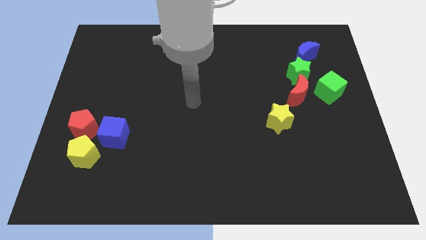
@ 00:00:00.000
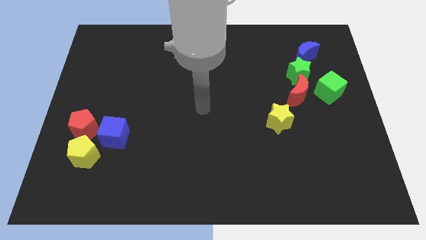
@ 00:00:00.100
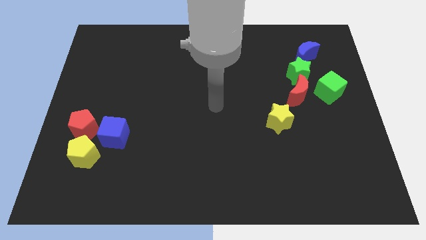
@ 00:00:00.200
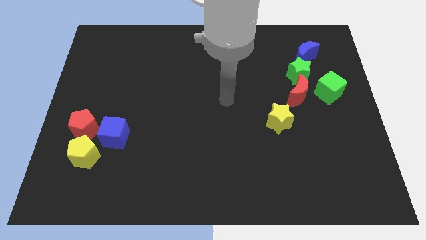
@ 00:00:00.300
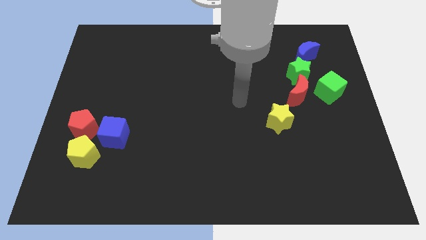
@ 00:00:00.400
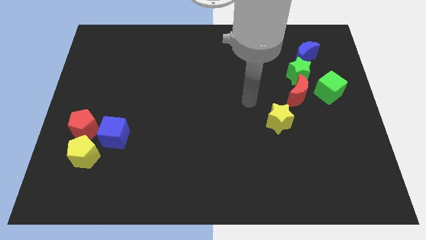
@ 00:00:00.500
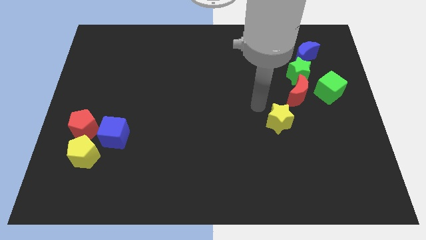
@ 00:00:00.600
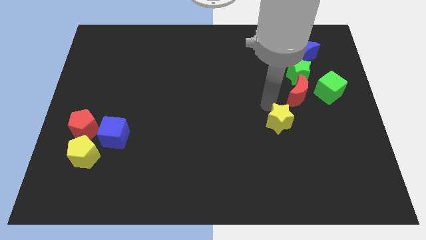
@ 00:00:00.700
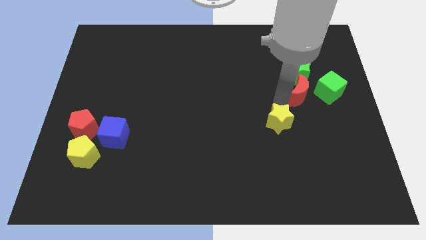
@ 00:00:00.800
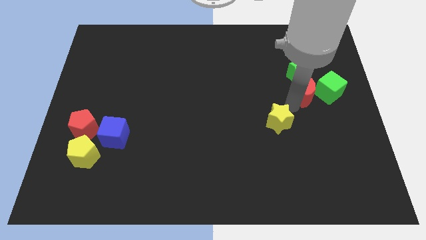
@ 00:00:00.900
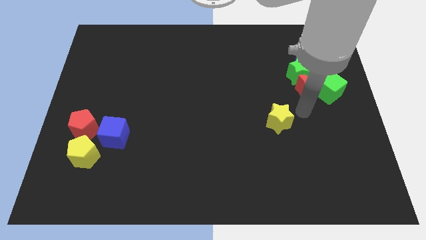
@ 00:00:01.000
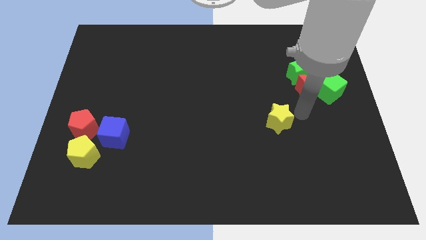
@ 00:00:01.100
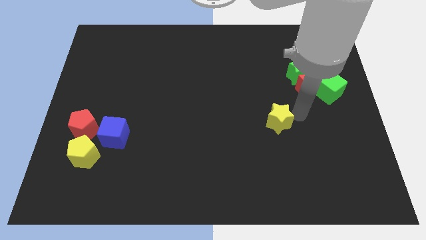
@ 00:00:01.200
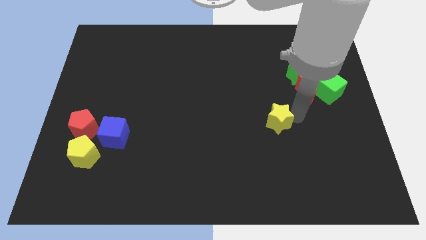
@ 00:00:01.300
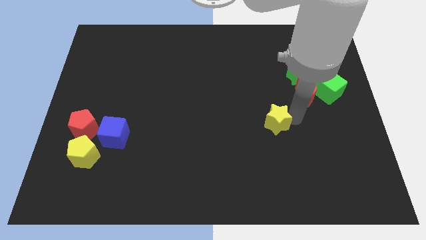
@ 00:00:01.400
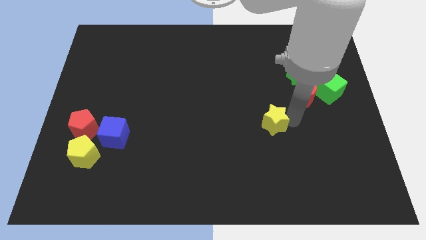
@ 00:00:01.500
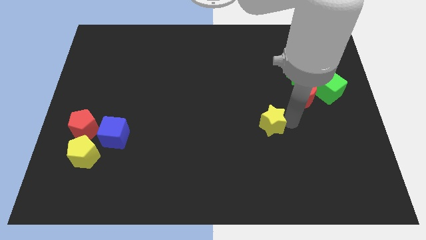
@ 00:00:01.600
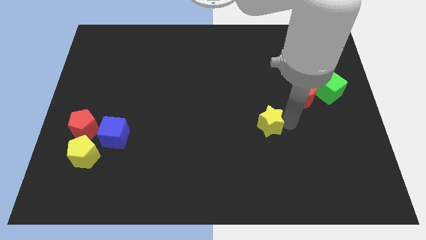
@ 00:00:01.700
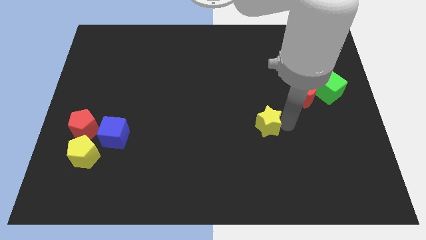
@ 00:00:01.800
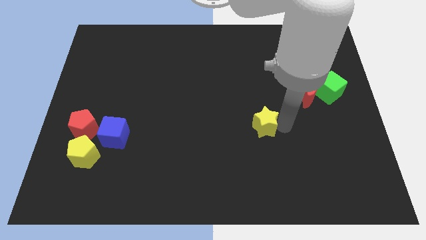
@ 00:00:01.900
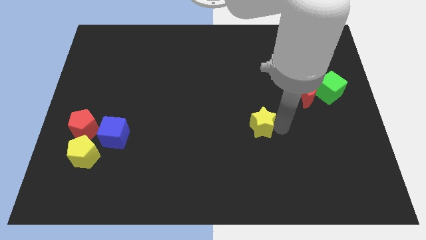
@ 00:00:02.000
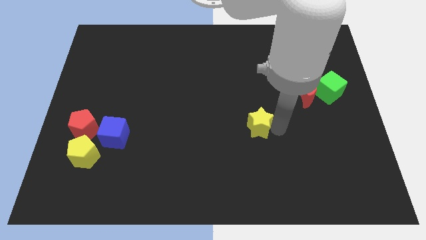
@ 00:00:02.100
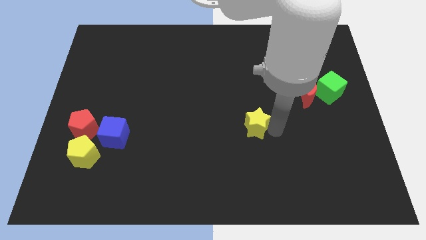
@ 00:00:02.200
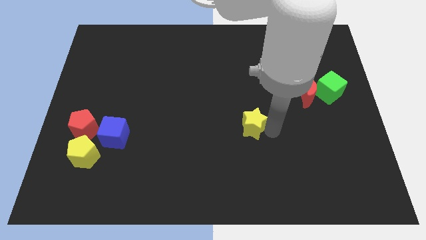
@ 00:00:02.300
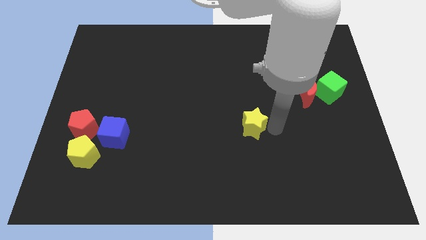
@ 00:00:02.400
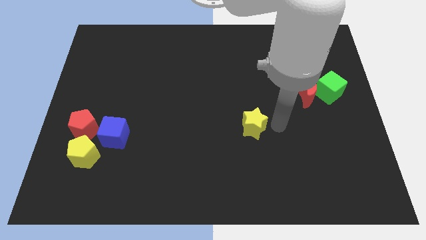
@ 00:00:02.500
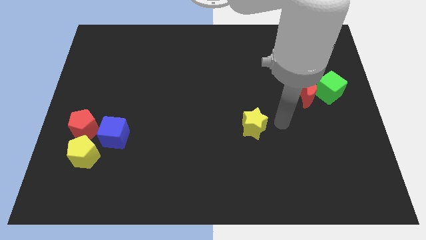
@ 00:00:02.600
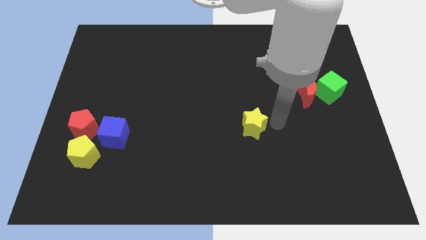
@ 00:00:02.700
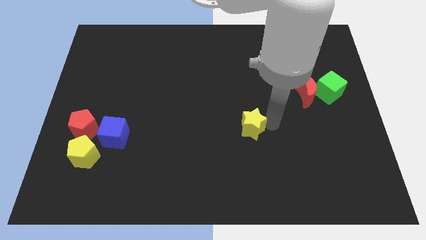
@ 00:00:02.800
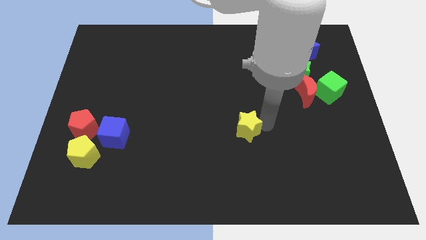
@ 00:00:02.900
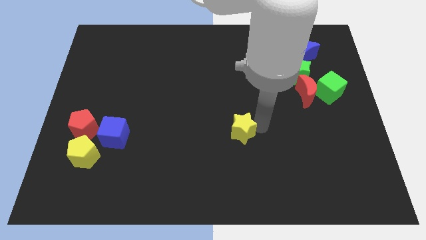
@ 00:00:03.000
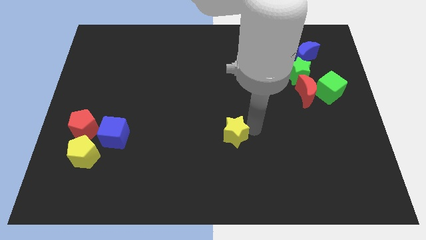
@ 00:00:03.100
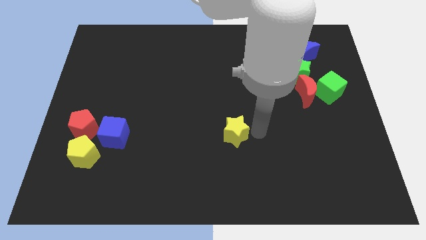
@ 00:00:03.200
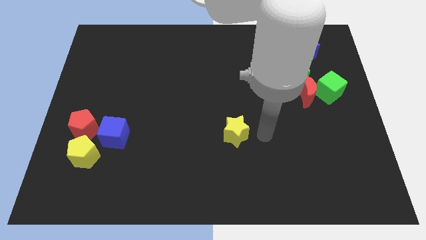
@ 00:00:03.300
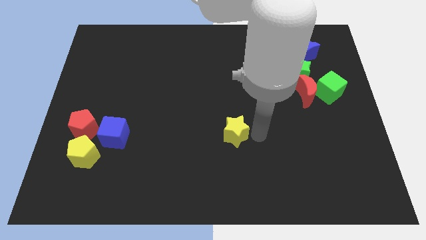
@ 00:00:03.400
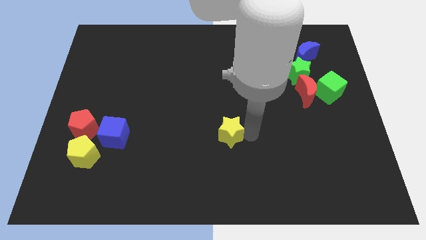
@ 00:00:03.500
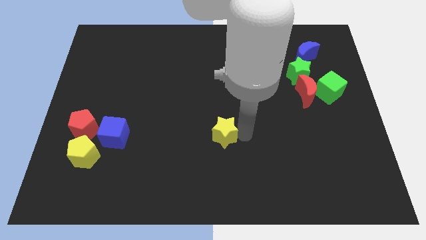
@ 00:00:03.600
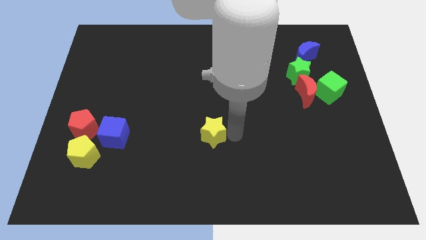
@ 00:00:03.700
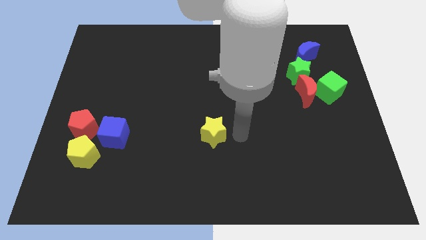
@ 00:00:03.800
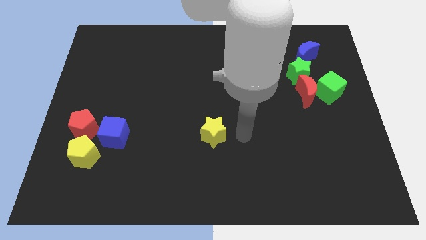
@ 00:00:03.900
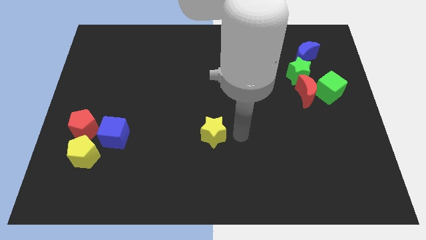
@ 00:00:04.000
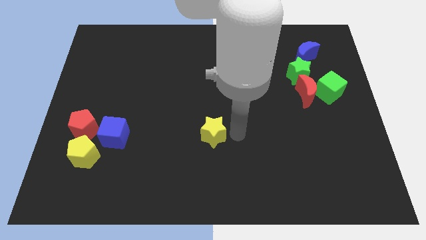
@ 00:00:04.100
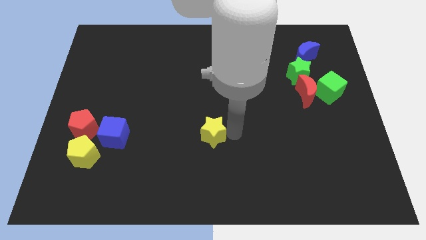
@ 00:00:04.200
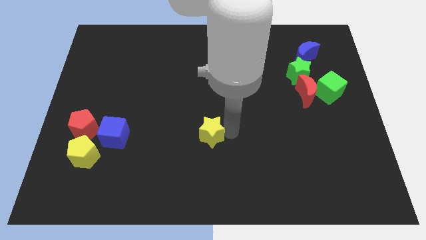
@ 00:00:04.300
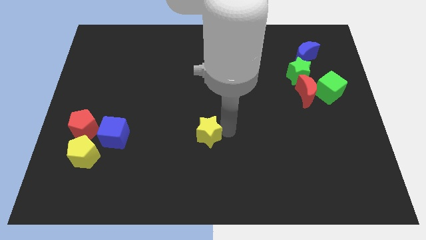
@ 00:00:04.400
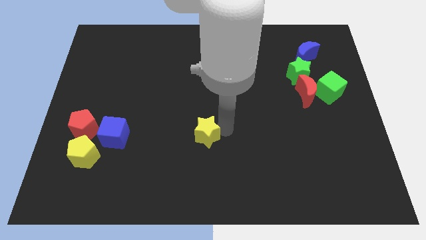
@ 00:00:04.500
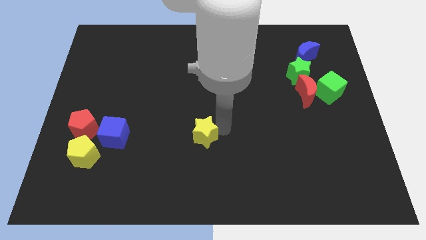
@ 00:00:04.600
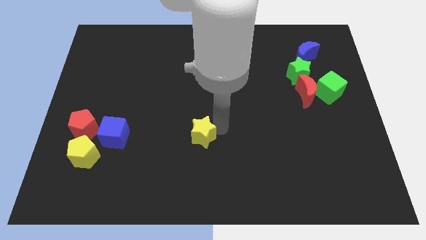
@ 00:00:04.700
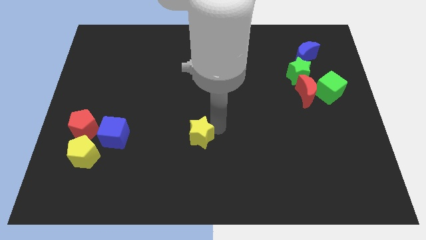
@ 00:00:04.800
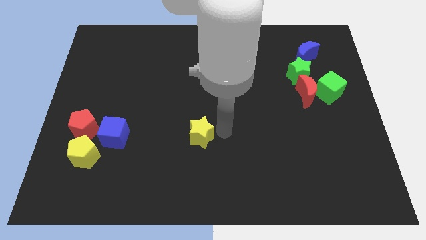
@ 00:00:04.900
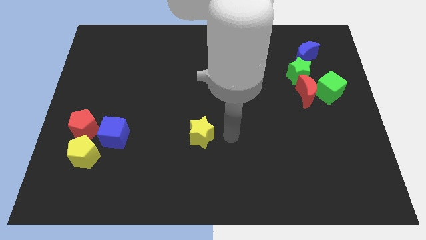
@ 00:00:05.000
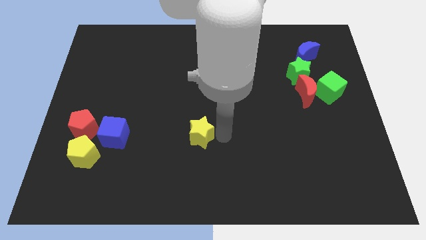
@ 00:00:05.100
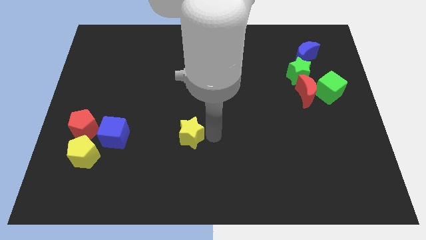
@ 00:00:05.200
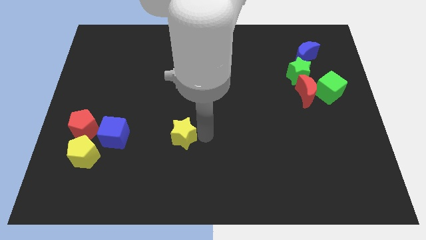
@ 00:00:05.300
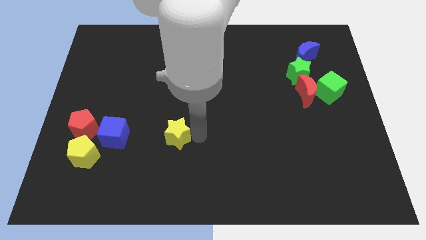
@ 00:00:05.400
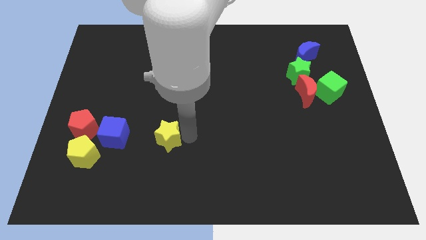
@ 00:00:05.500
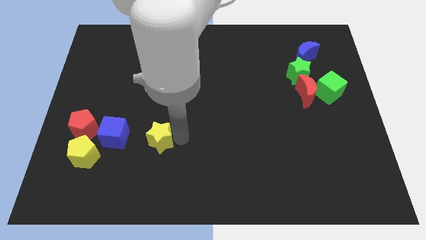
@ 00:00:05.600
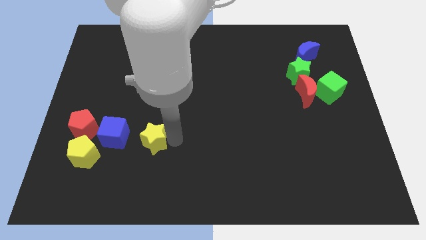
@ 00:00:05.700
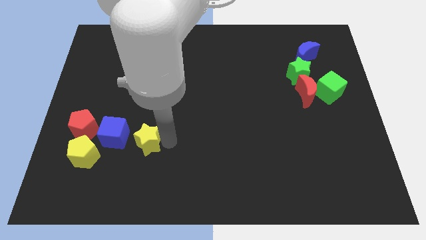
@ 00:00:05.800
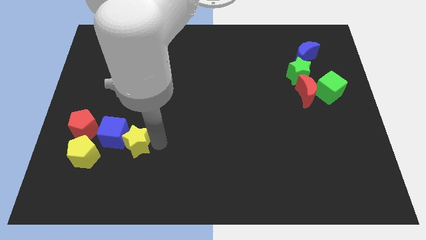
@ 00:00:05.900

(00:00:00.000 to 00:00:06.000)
move the yellow star towards the blue cube

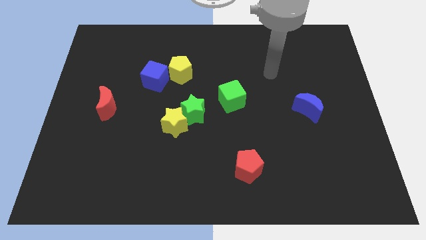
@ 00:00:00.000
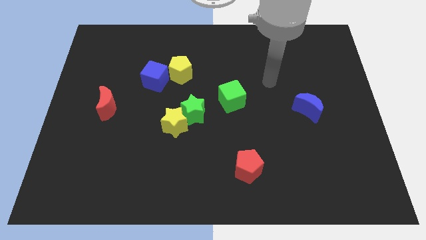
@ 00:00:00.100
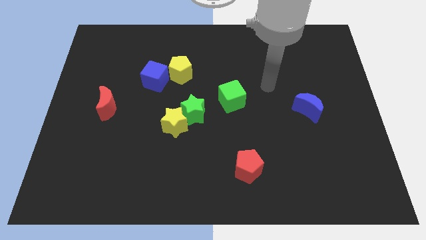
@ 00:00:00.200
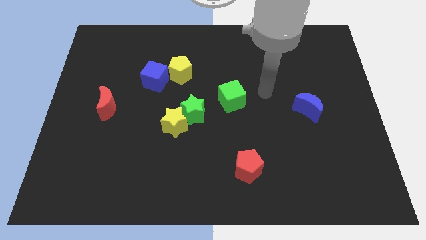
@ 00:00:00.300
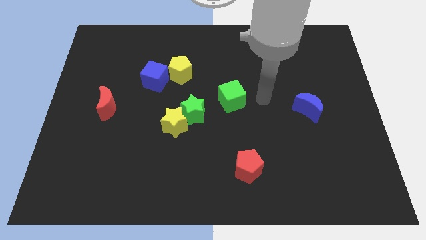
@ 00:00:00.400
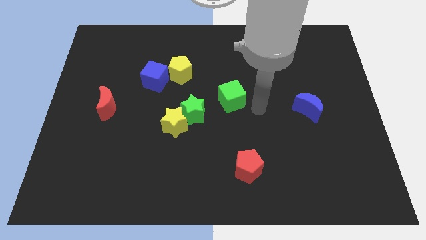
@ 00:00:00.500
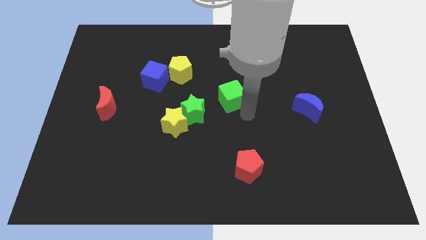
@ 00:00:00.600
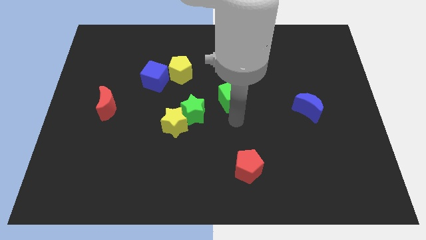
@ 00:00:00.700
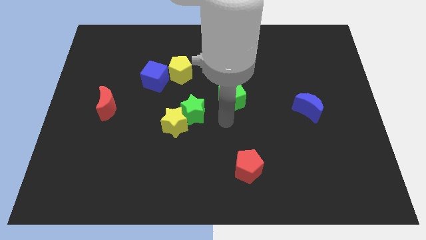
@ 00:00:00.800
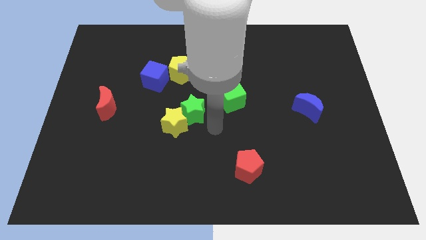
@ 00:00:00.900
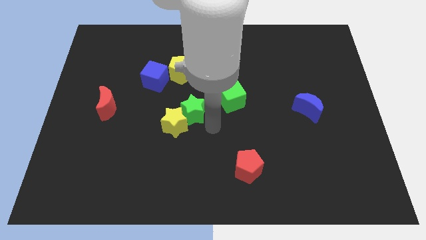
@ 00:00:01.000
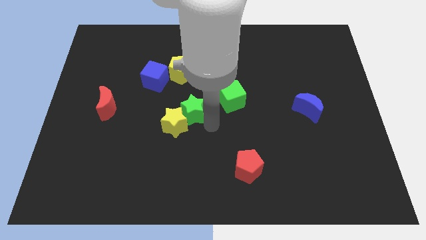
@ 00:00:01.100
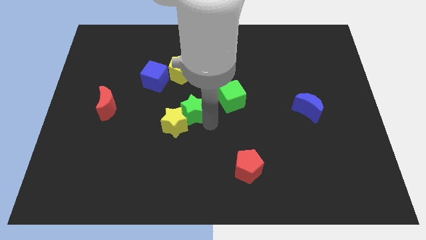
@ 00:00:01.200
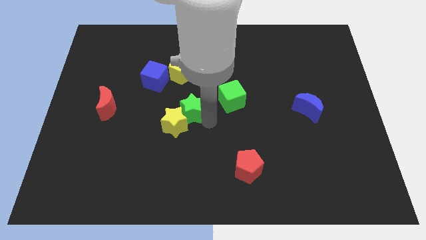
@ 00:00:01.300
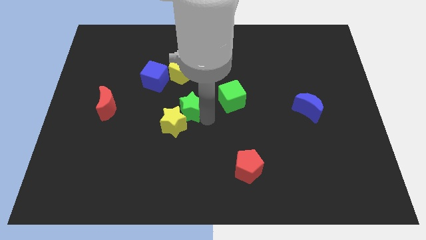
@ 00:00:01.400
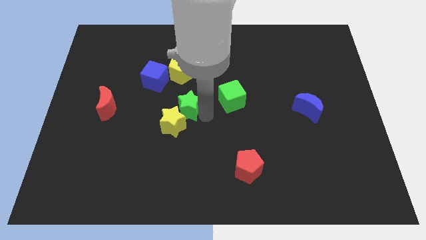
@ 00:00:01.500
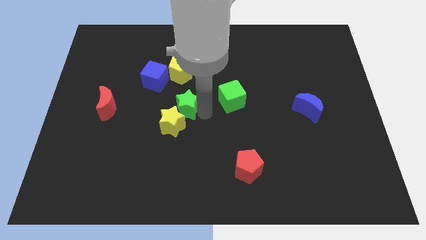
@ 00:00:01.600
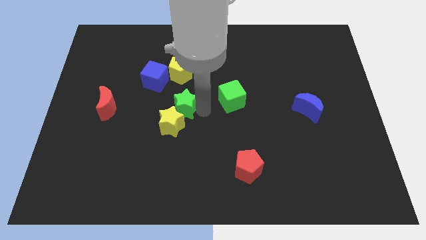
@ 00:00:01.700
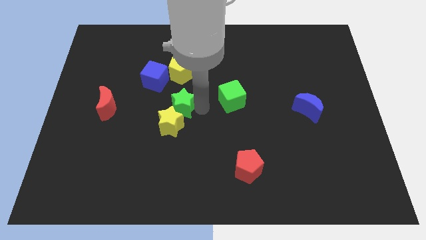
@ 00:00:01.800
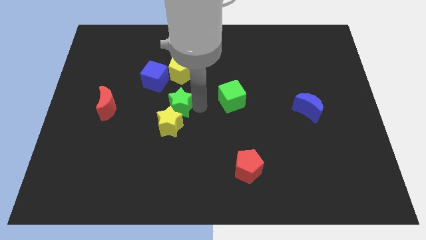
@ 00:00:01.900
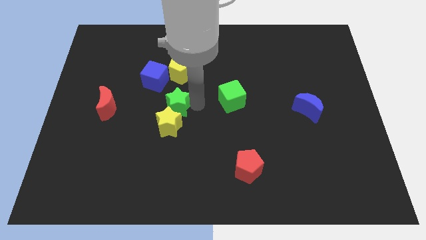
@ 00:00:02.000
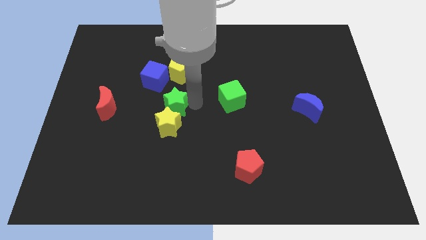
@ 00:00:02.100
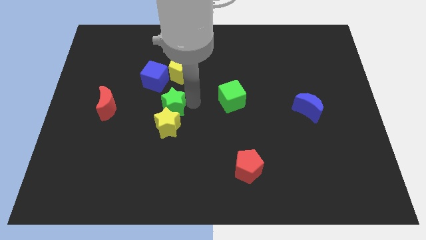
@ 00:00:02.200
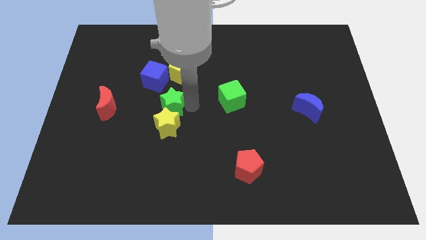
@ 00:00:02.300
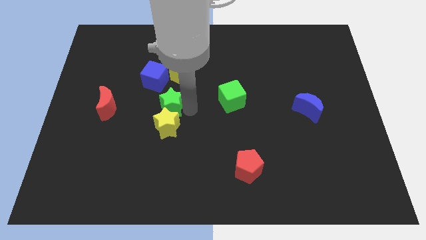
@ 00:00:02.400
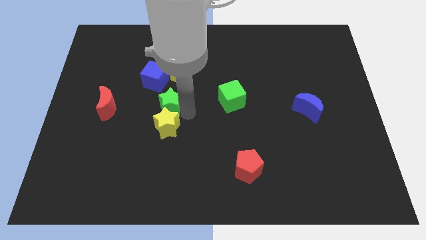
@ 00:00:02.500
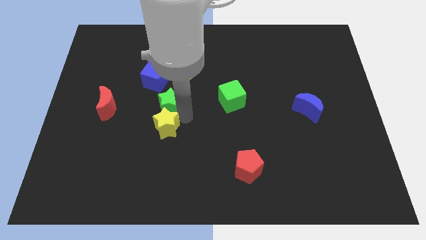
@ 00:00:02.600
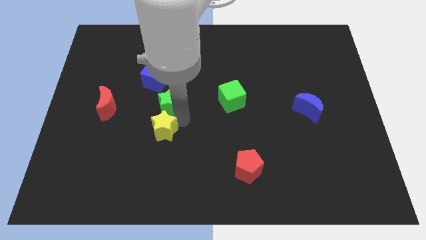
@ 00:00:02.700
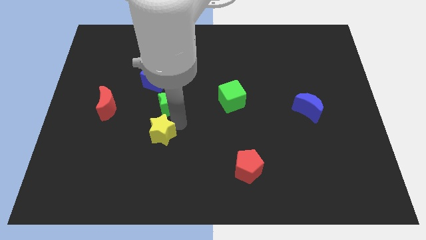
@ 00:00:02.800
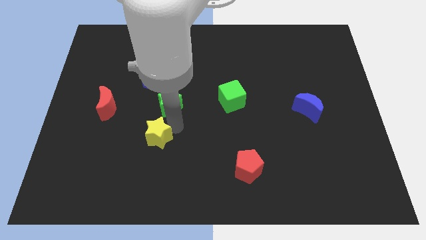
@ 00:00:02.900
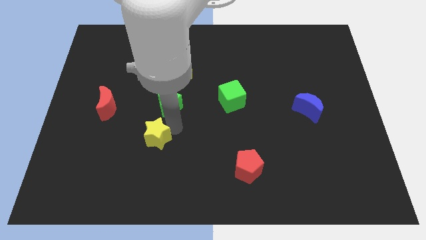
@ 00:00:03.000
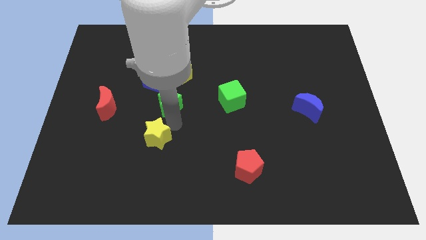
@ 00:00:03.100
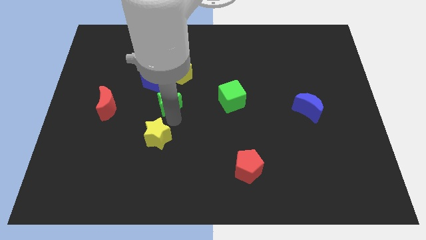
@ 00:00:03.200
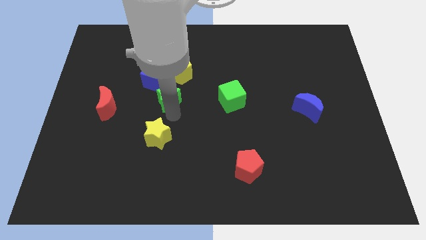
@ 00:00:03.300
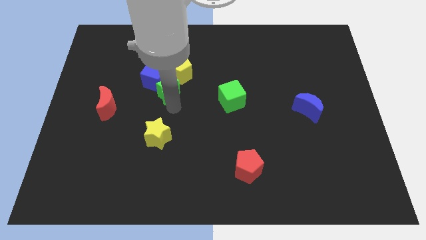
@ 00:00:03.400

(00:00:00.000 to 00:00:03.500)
slide the green star next to the blue cube
